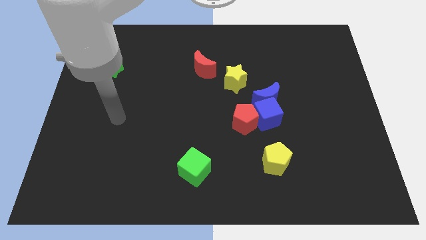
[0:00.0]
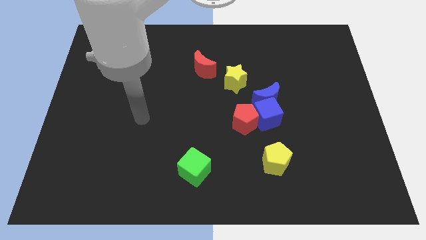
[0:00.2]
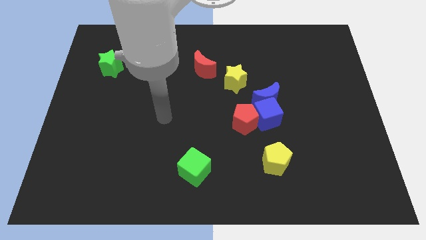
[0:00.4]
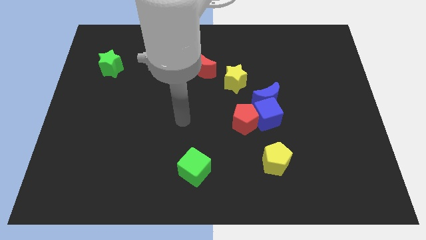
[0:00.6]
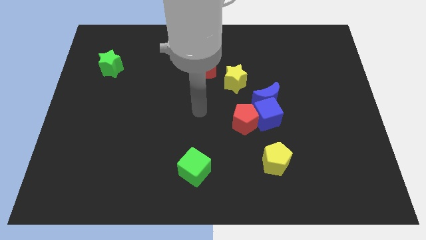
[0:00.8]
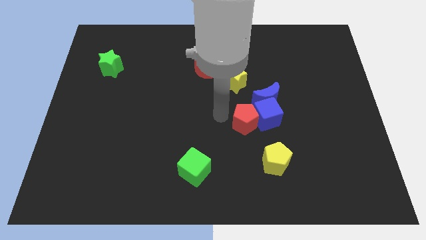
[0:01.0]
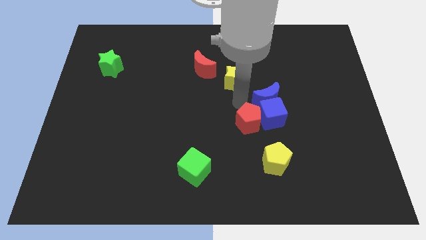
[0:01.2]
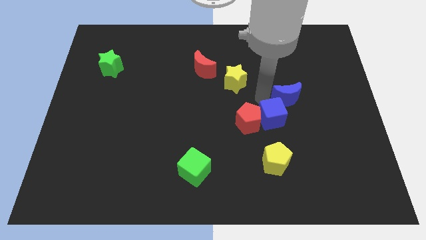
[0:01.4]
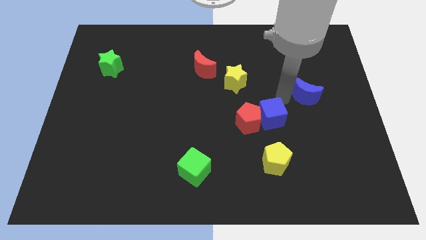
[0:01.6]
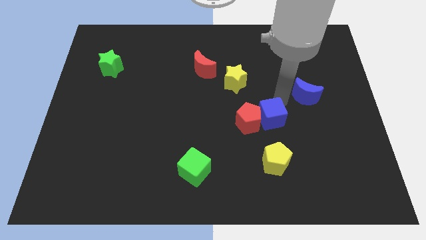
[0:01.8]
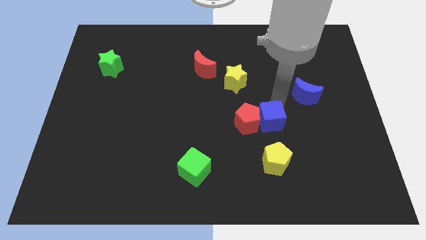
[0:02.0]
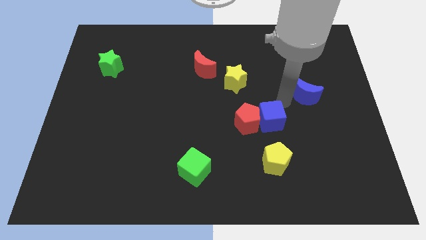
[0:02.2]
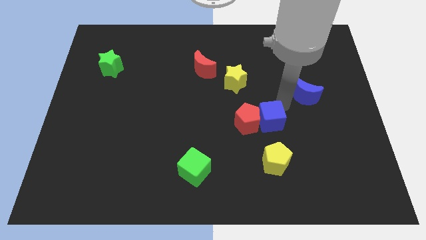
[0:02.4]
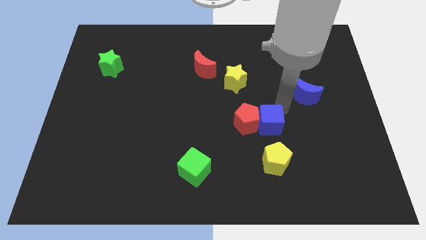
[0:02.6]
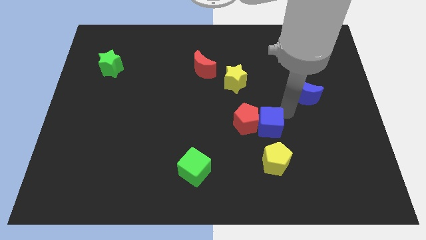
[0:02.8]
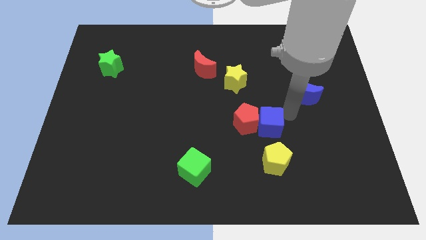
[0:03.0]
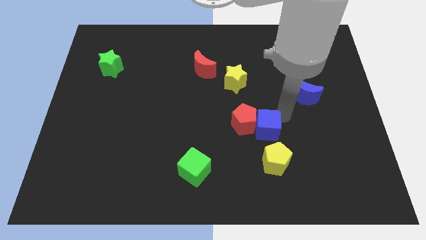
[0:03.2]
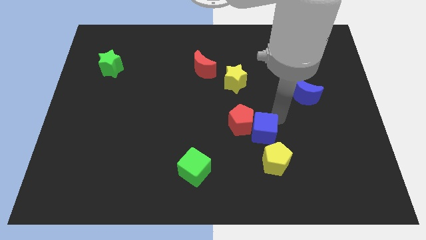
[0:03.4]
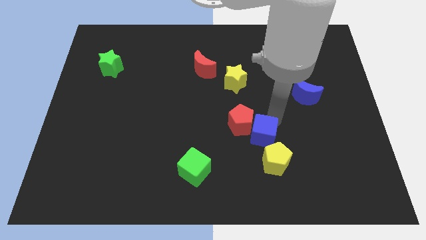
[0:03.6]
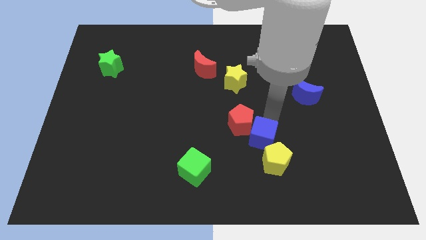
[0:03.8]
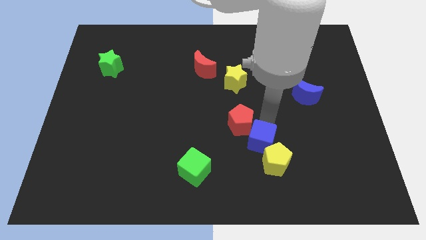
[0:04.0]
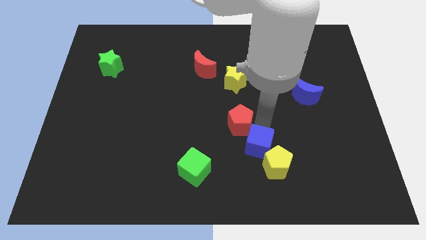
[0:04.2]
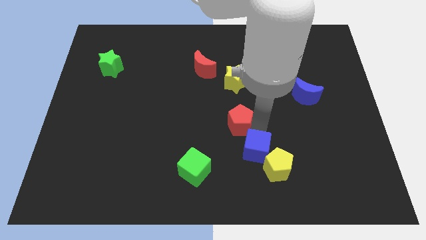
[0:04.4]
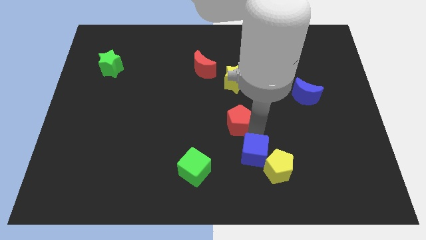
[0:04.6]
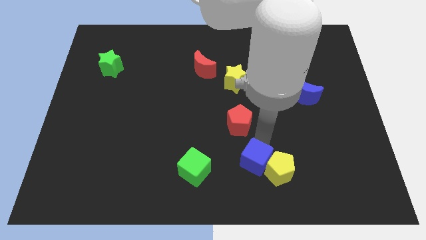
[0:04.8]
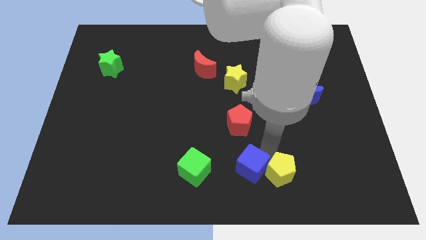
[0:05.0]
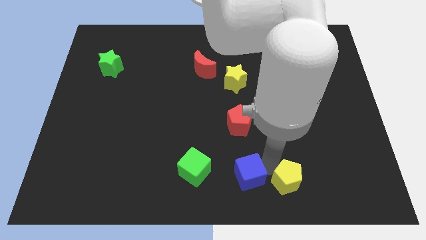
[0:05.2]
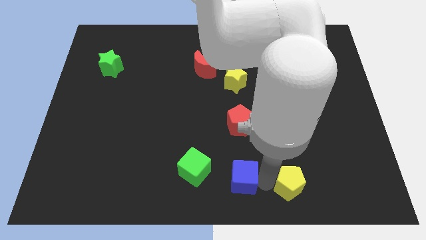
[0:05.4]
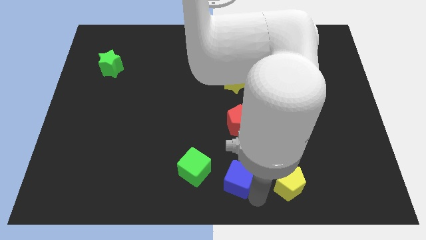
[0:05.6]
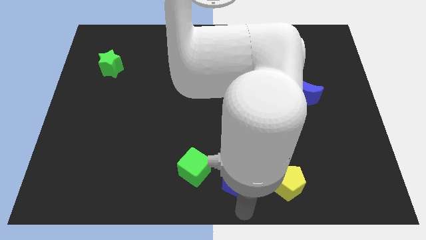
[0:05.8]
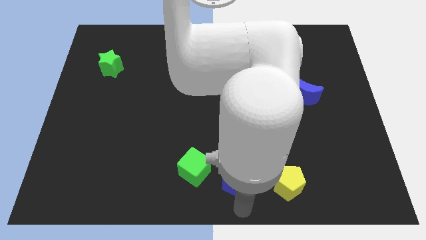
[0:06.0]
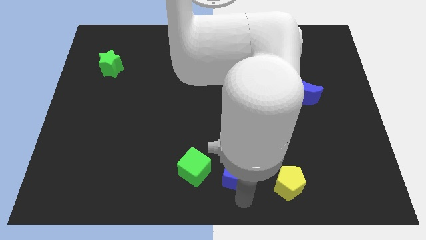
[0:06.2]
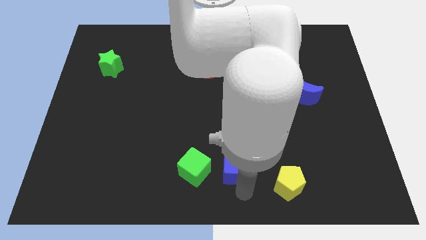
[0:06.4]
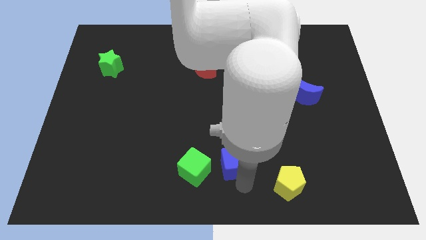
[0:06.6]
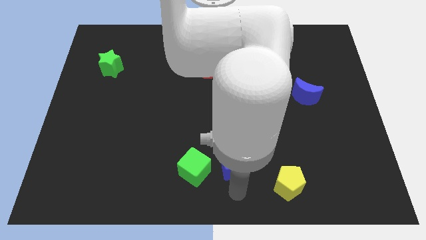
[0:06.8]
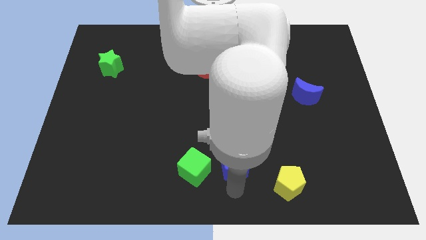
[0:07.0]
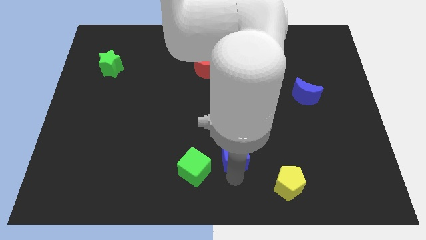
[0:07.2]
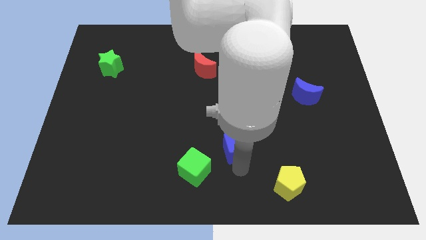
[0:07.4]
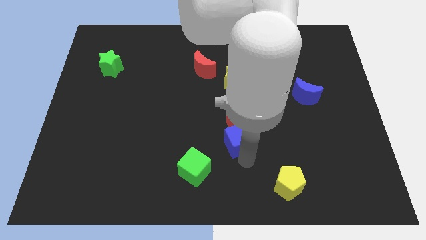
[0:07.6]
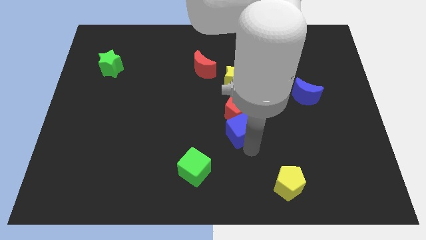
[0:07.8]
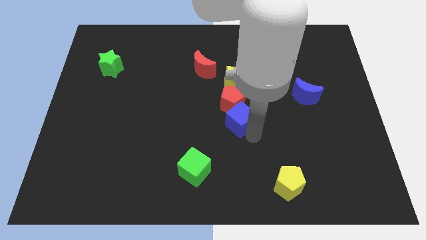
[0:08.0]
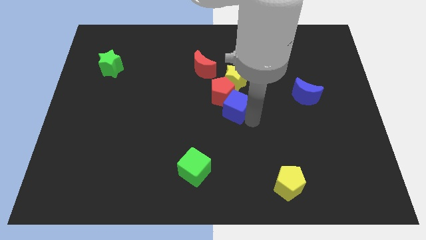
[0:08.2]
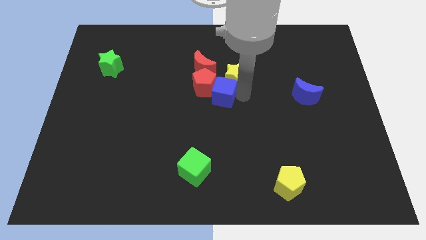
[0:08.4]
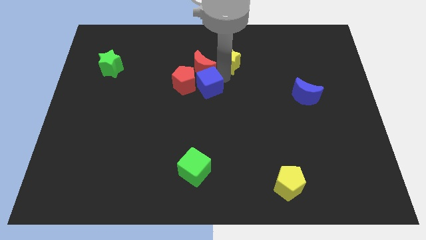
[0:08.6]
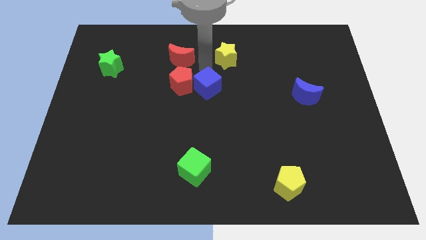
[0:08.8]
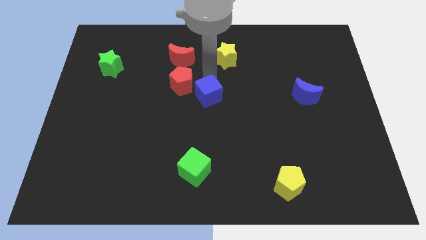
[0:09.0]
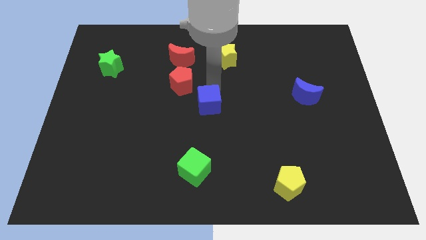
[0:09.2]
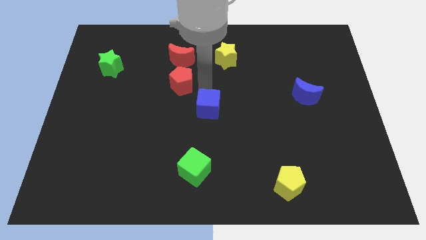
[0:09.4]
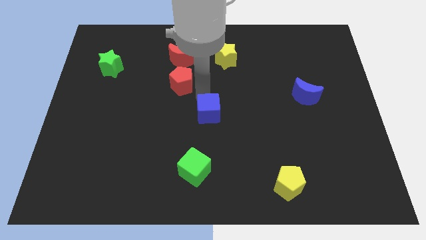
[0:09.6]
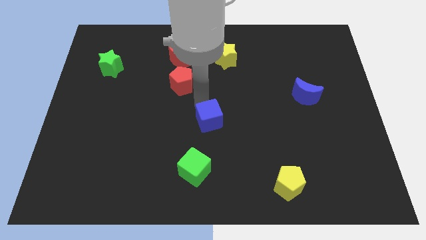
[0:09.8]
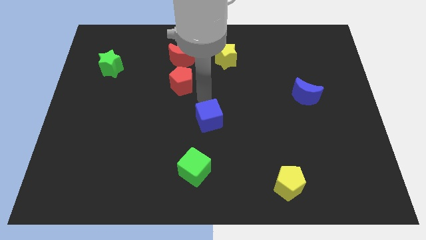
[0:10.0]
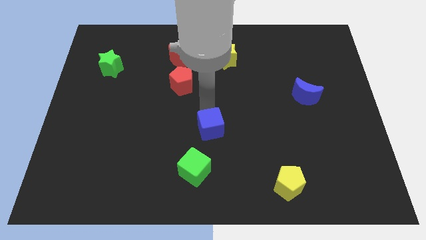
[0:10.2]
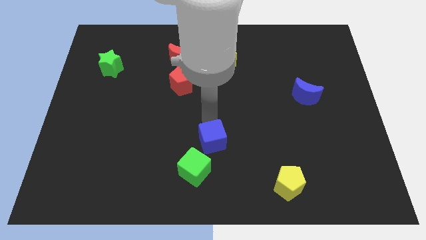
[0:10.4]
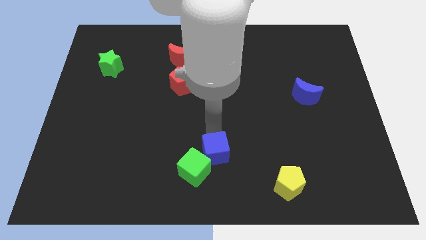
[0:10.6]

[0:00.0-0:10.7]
push the blue cube to the green cube
